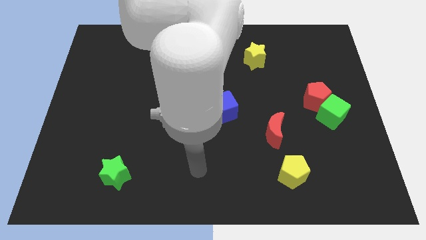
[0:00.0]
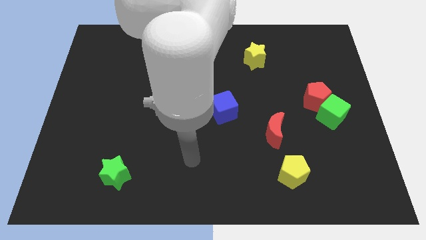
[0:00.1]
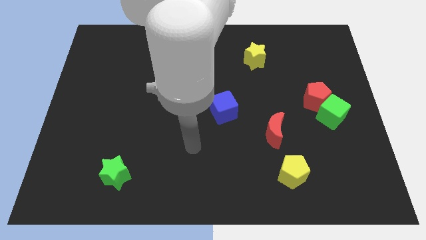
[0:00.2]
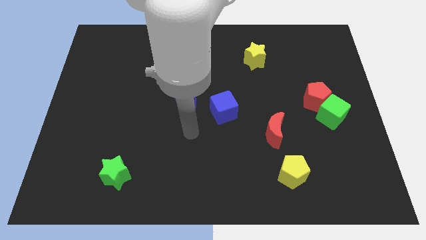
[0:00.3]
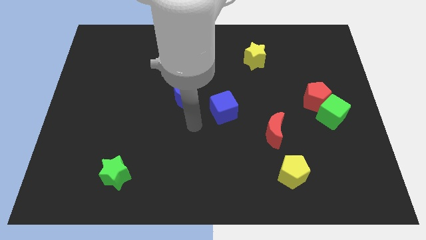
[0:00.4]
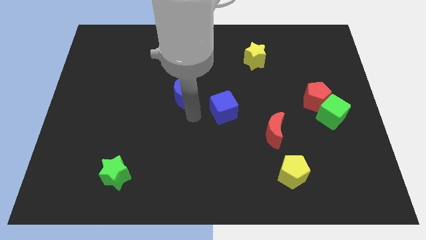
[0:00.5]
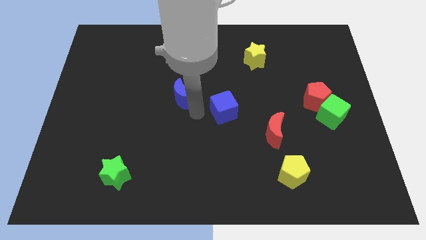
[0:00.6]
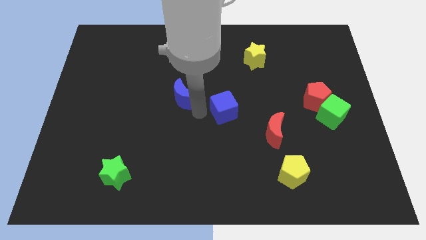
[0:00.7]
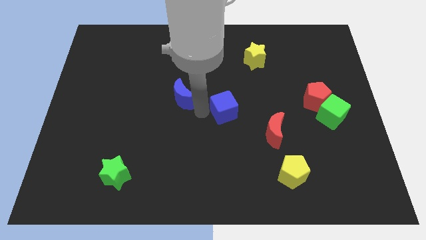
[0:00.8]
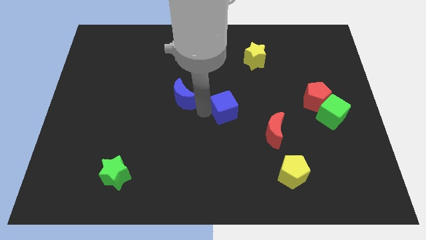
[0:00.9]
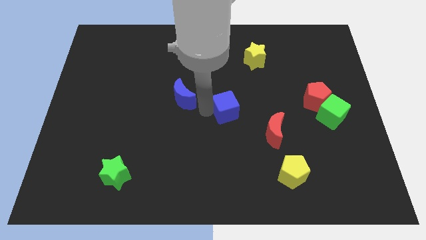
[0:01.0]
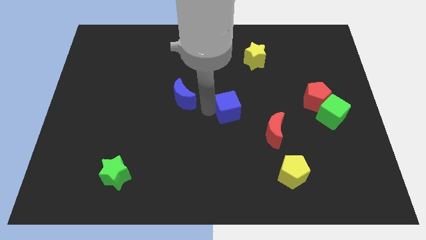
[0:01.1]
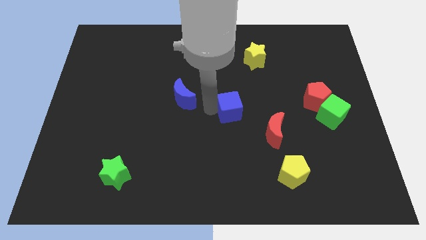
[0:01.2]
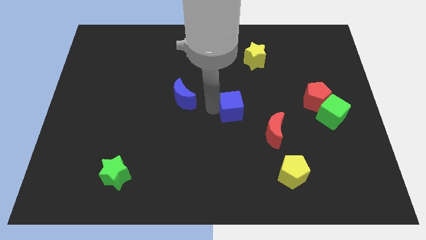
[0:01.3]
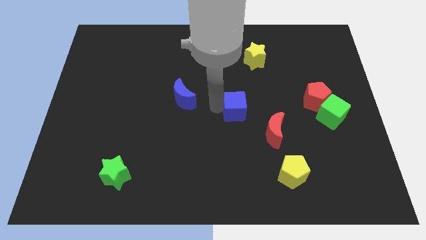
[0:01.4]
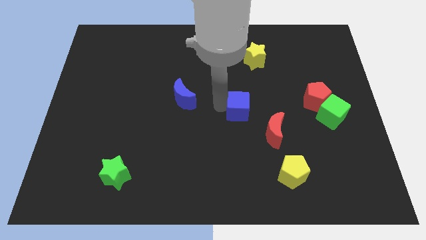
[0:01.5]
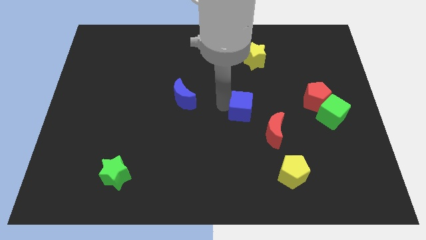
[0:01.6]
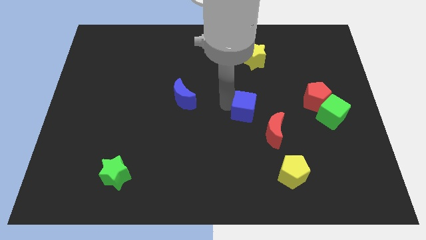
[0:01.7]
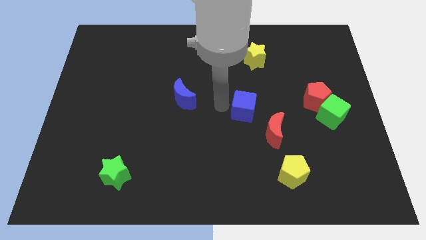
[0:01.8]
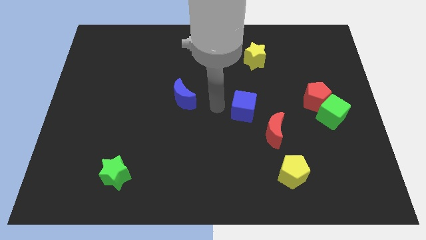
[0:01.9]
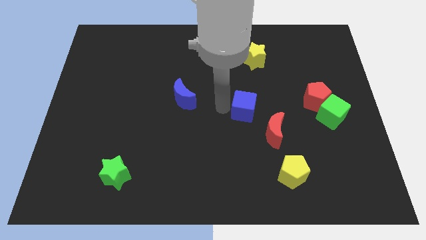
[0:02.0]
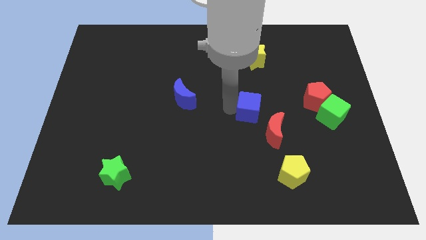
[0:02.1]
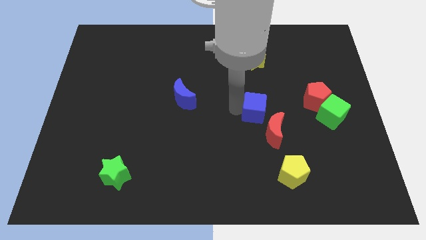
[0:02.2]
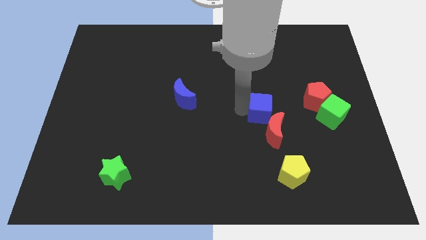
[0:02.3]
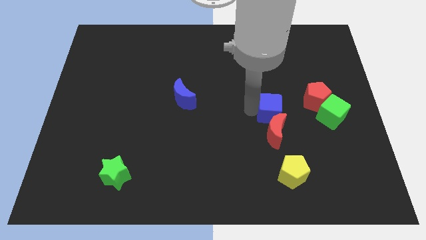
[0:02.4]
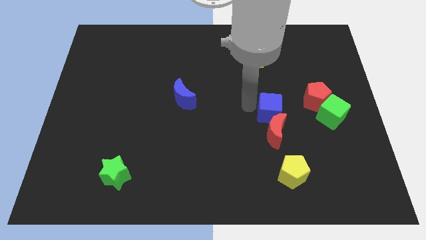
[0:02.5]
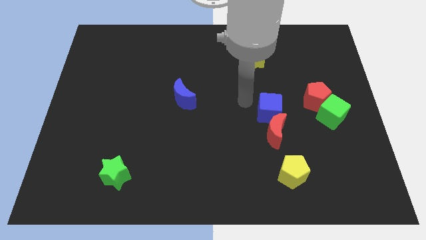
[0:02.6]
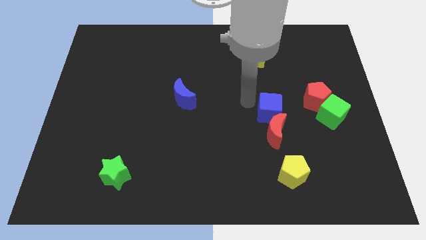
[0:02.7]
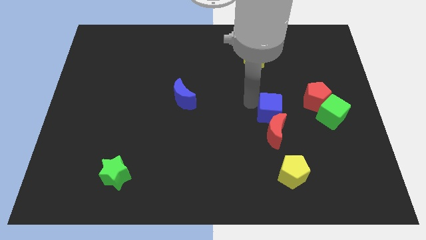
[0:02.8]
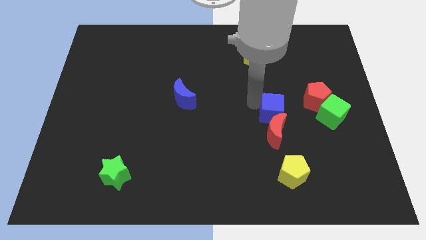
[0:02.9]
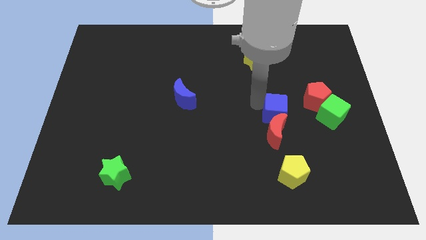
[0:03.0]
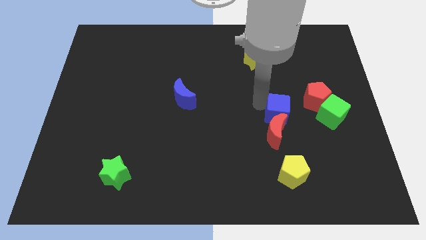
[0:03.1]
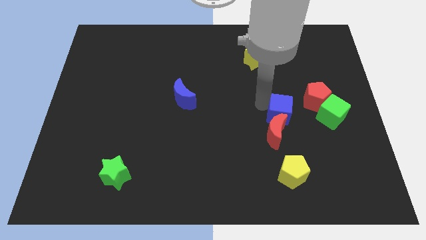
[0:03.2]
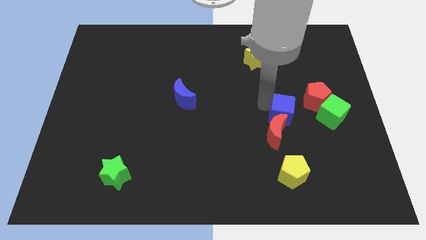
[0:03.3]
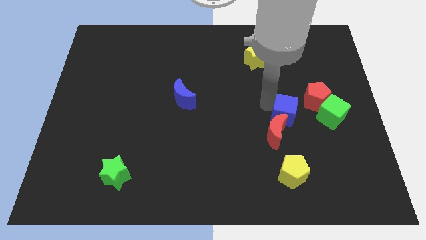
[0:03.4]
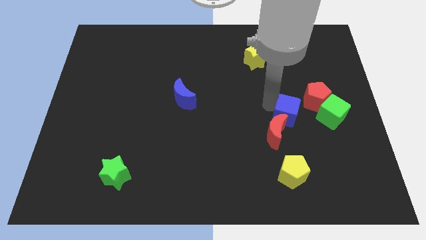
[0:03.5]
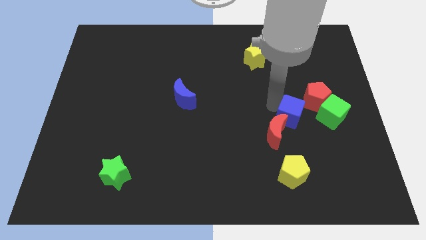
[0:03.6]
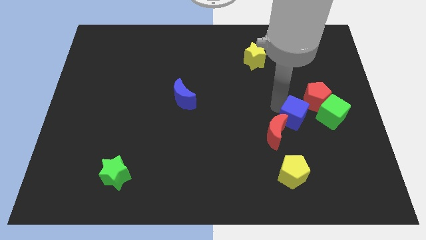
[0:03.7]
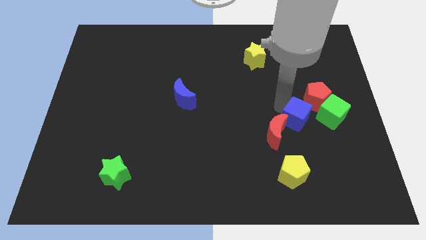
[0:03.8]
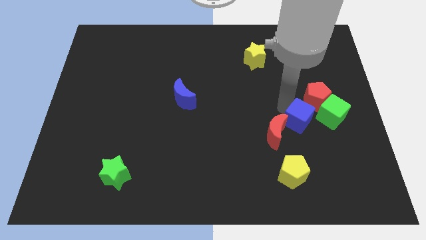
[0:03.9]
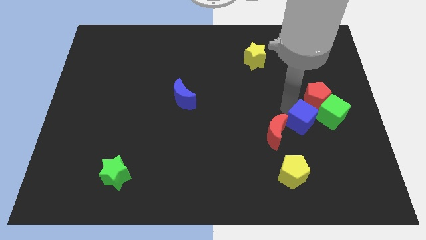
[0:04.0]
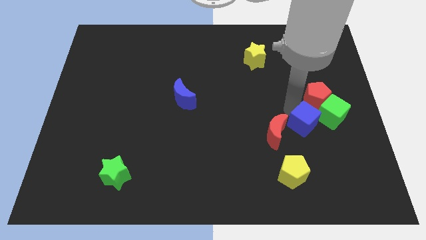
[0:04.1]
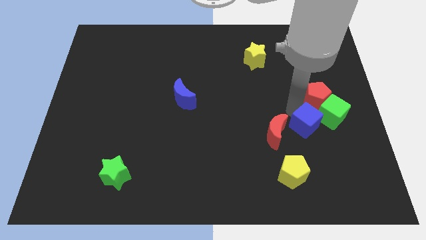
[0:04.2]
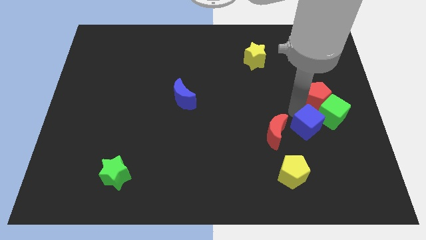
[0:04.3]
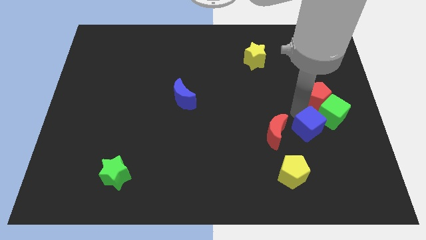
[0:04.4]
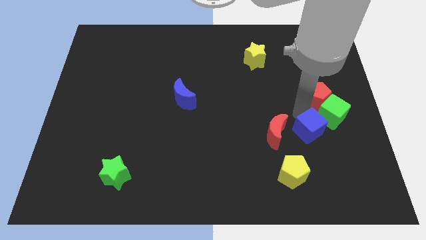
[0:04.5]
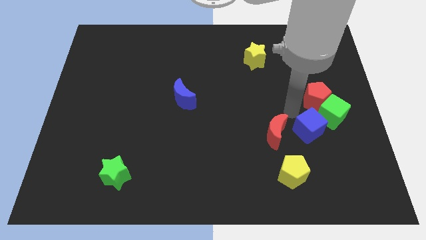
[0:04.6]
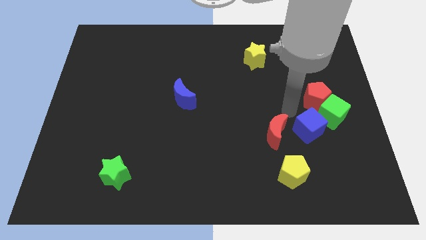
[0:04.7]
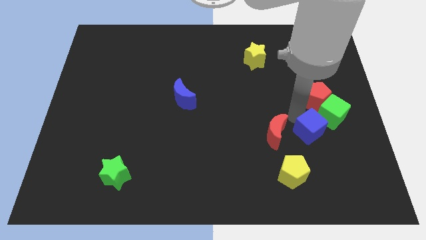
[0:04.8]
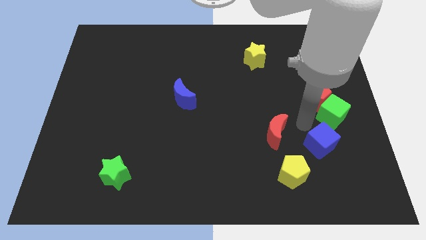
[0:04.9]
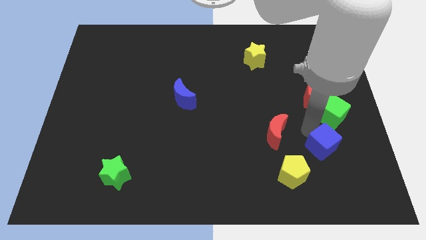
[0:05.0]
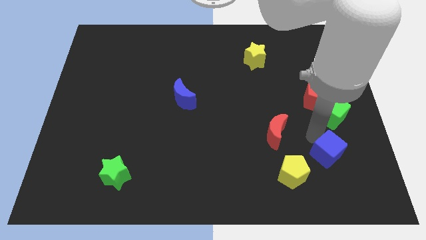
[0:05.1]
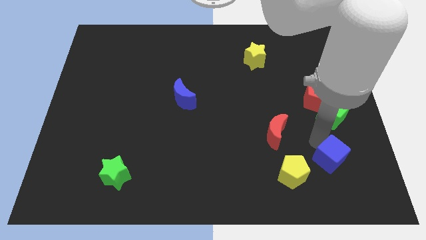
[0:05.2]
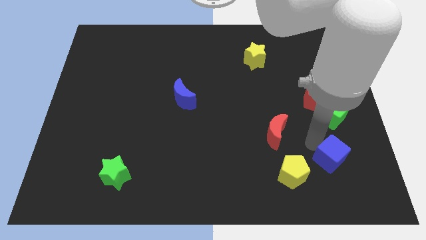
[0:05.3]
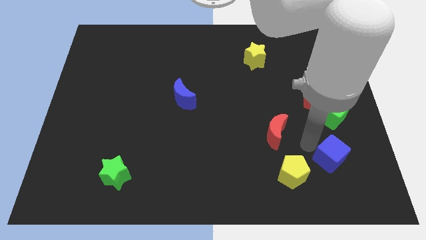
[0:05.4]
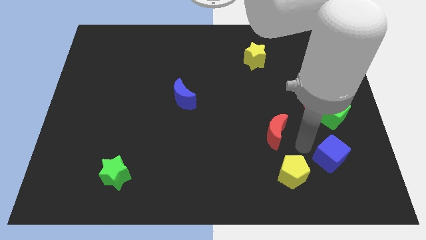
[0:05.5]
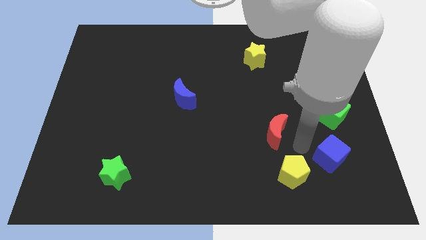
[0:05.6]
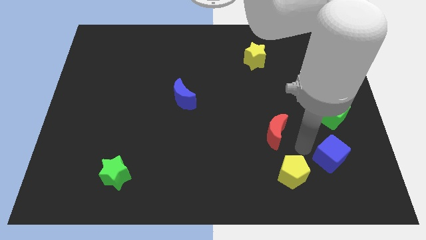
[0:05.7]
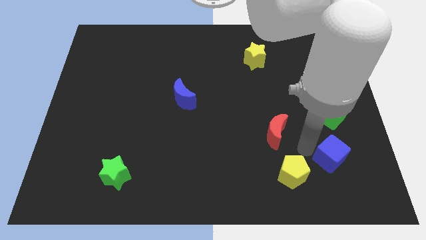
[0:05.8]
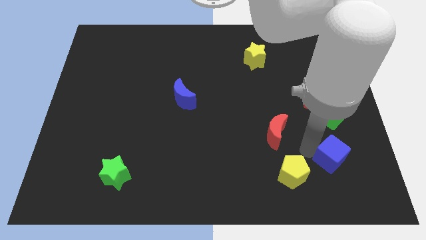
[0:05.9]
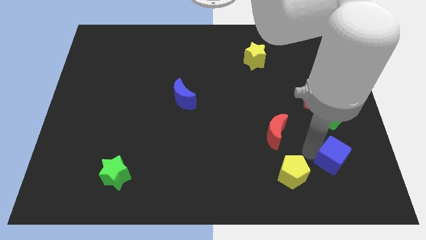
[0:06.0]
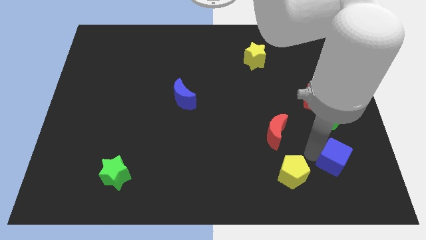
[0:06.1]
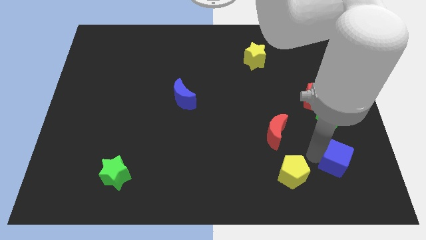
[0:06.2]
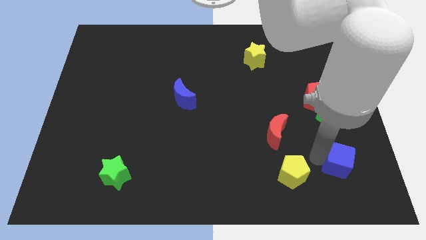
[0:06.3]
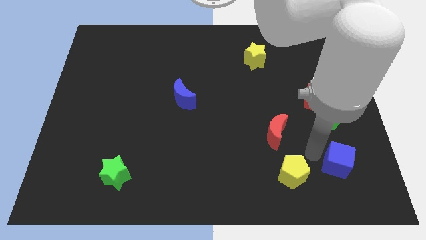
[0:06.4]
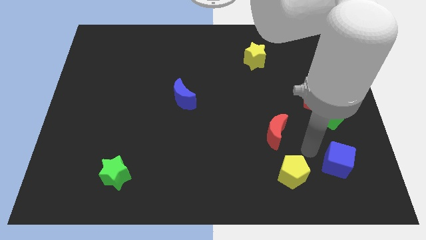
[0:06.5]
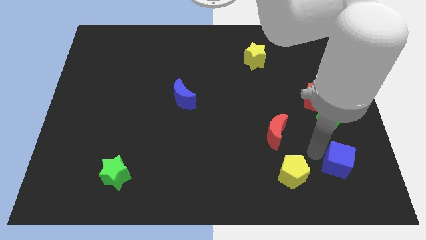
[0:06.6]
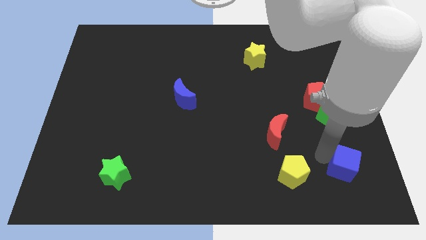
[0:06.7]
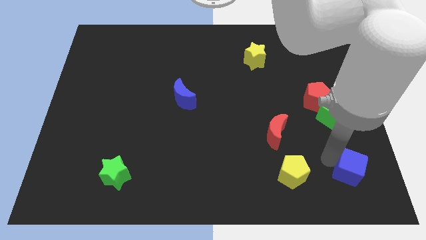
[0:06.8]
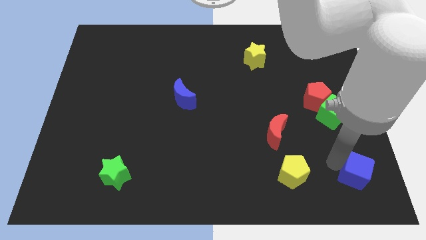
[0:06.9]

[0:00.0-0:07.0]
slide the blue cube to the bottom right of the board
